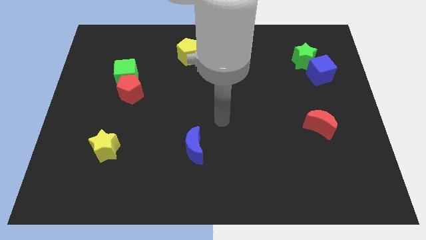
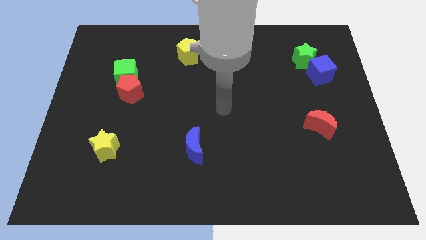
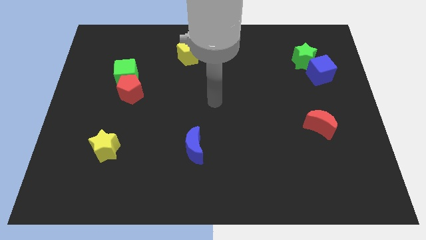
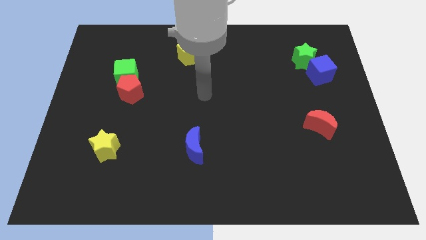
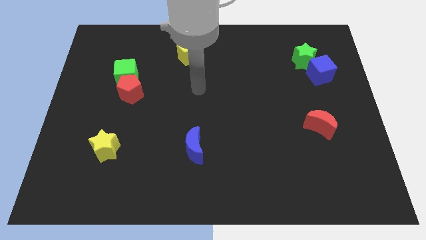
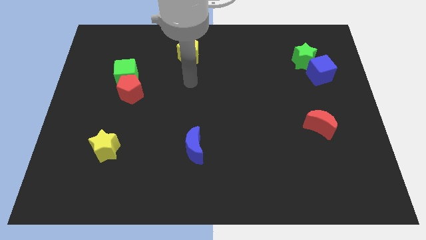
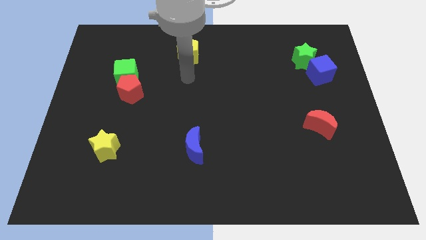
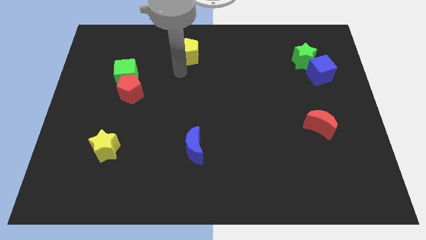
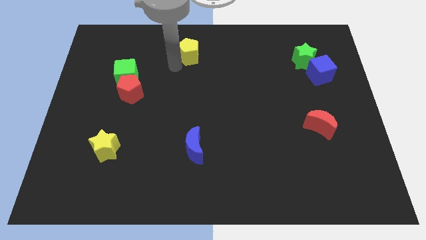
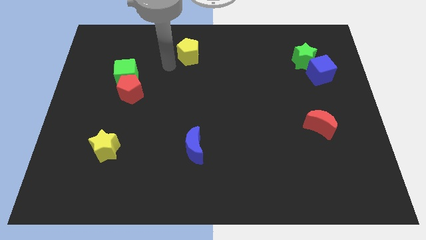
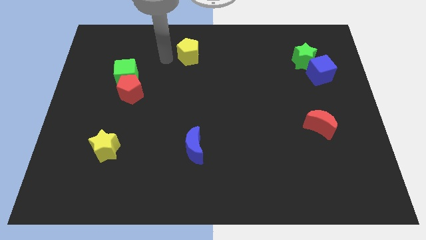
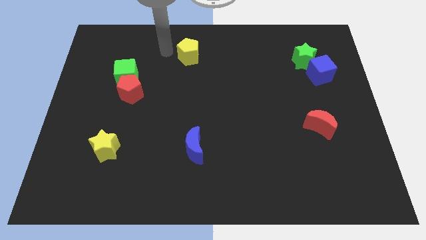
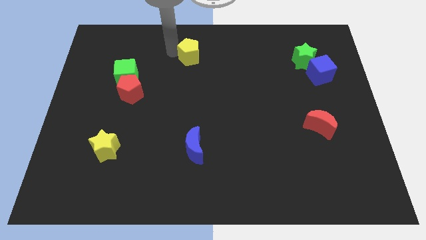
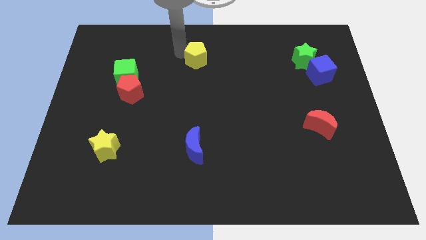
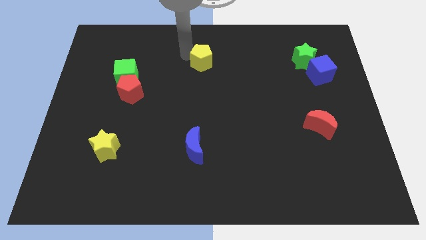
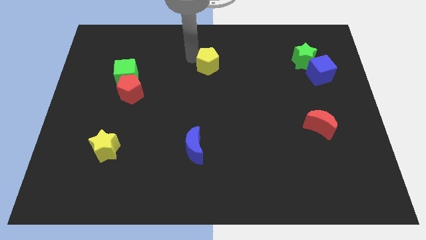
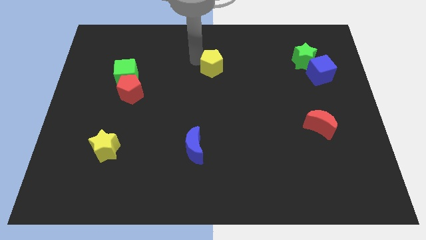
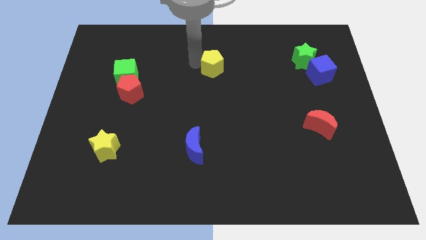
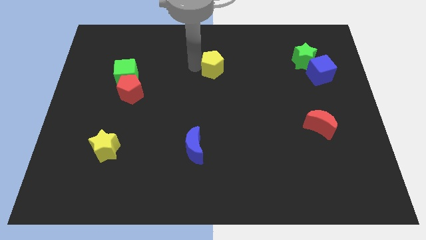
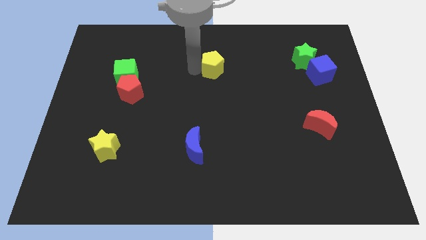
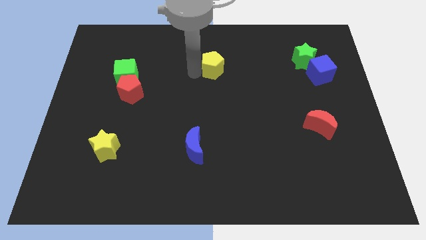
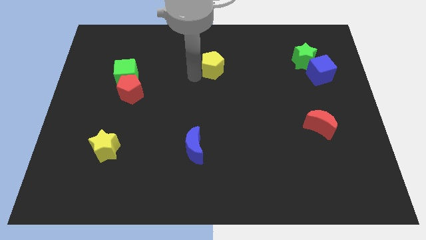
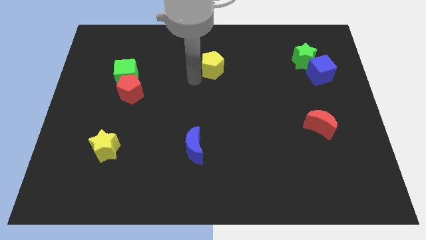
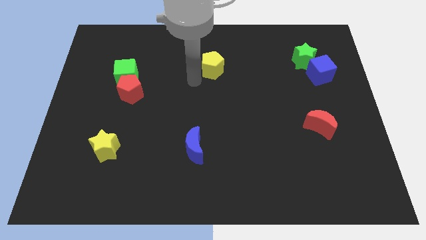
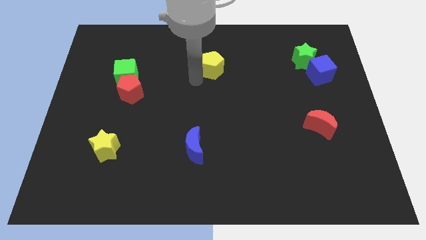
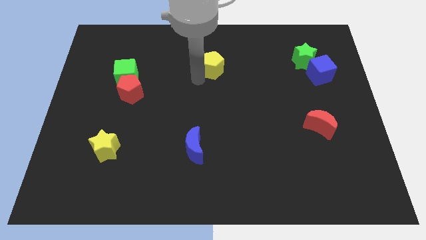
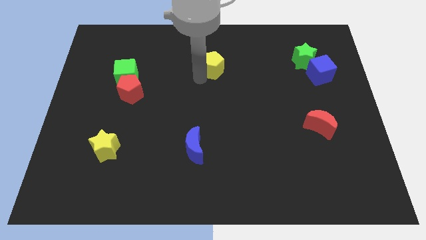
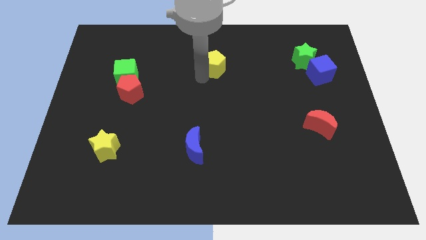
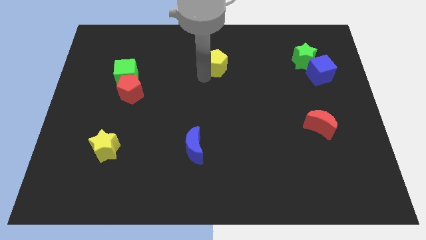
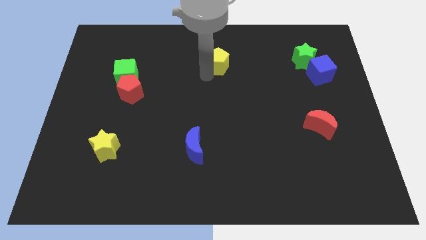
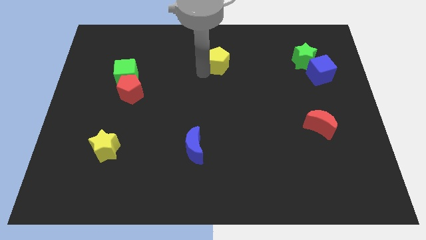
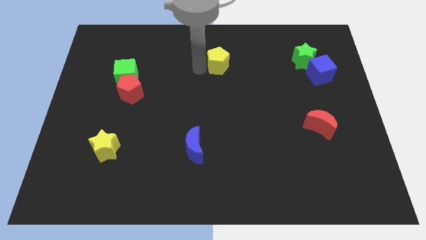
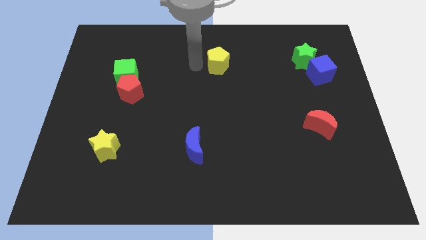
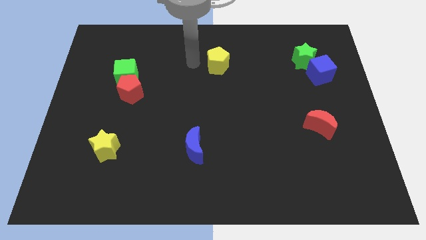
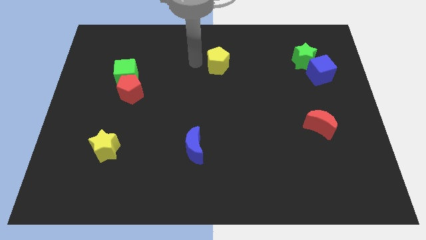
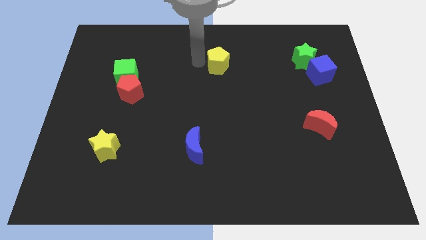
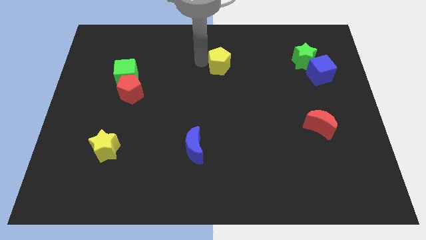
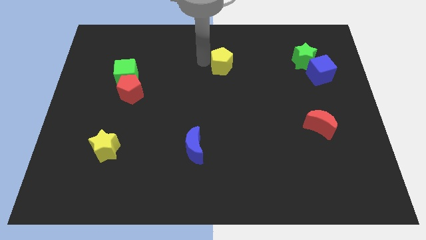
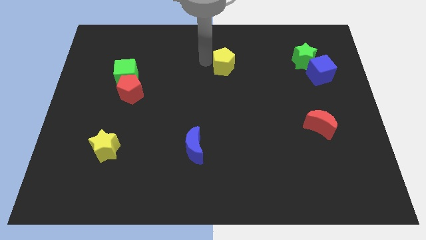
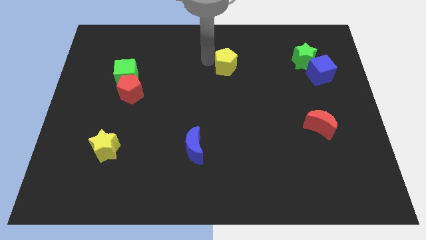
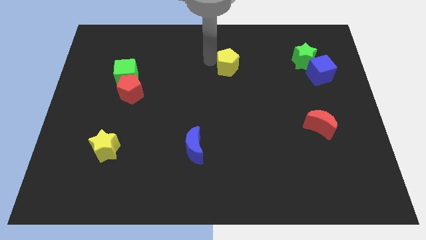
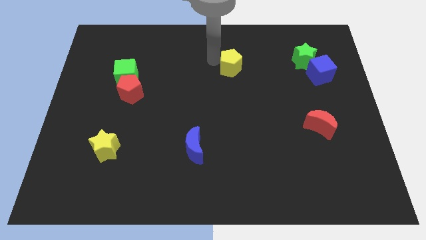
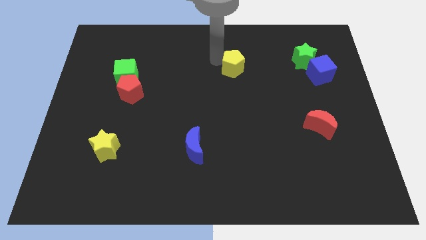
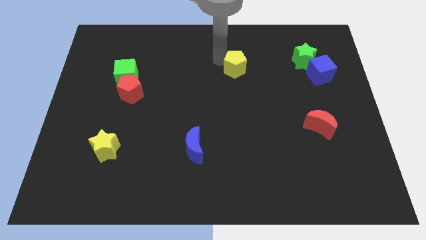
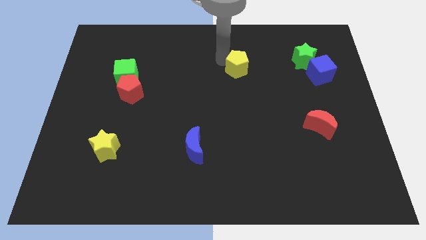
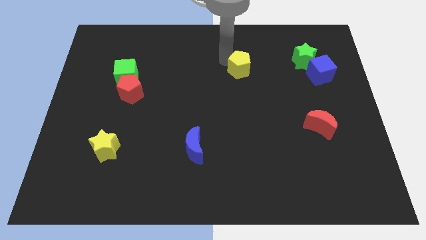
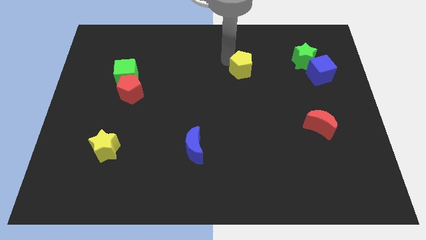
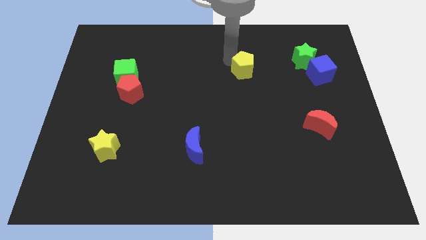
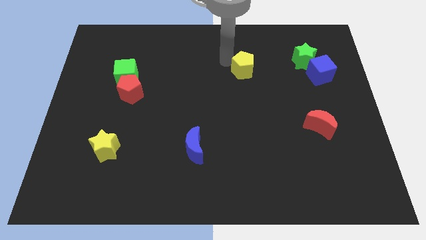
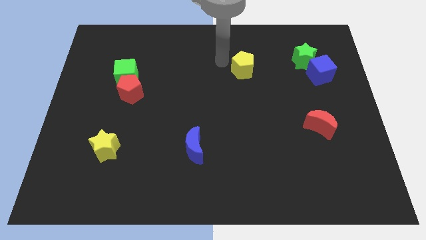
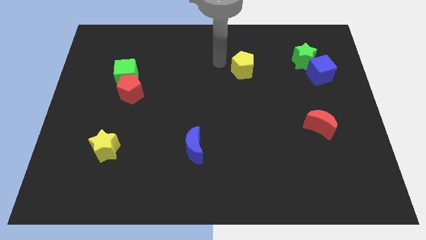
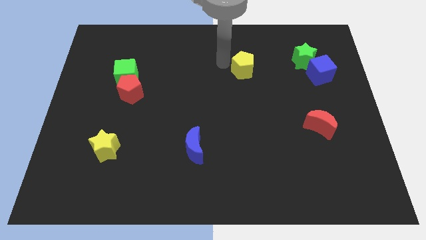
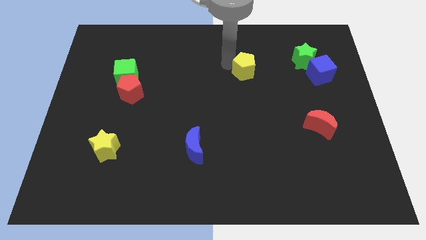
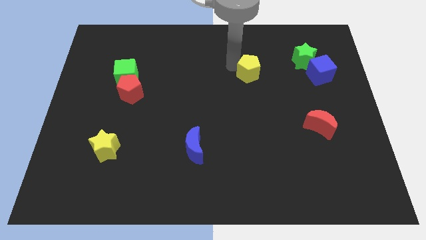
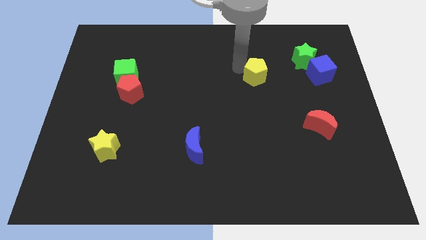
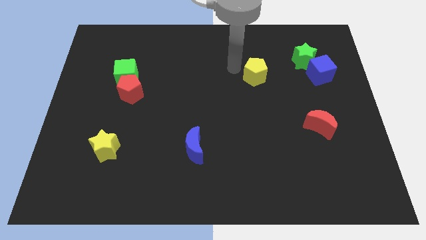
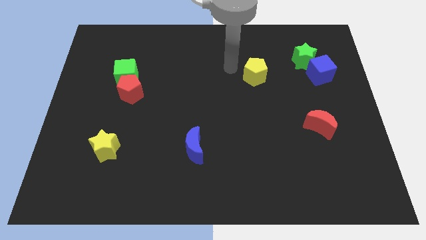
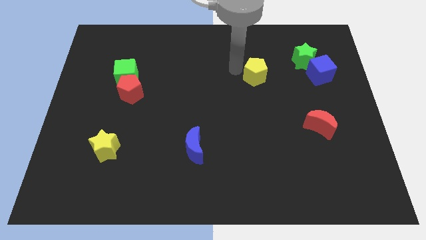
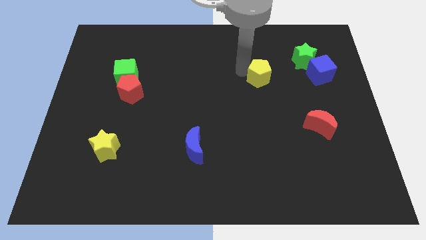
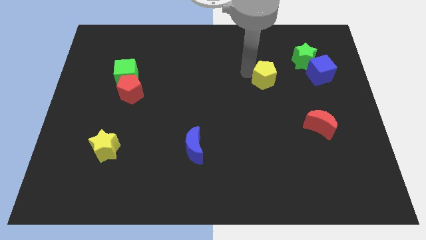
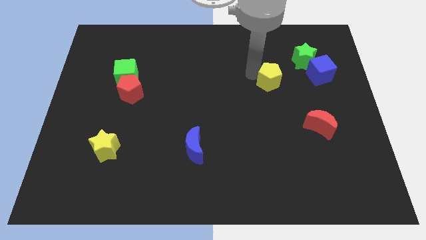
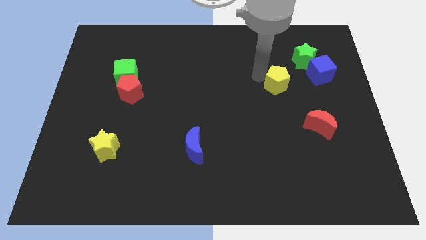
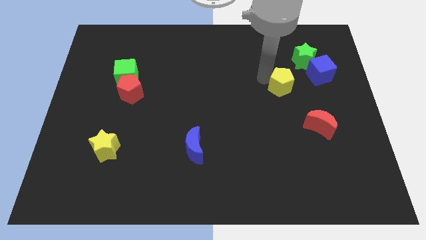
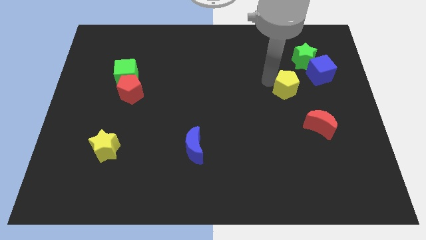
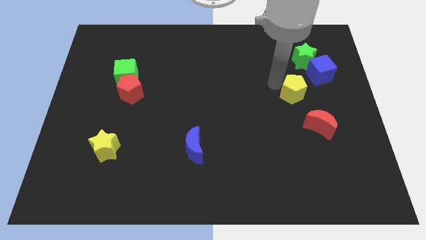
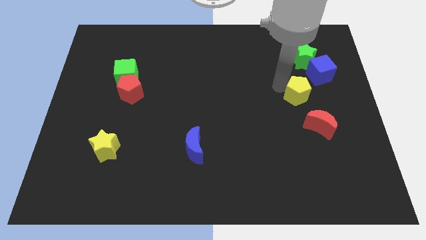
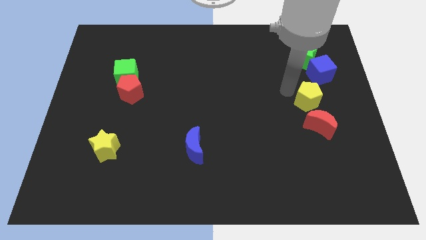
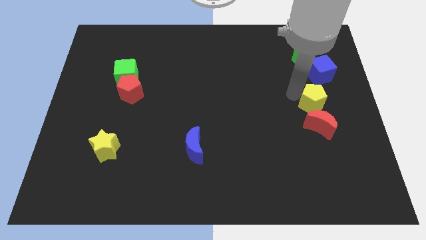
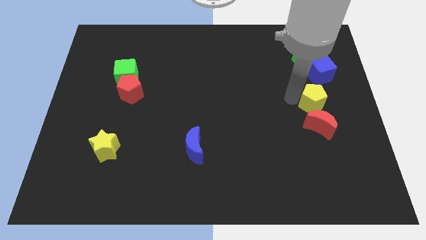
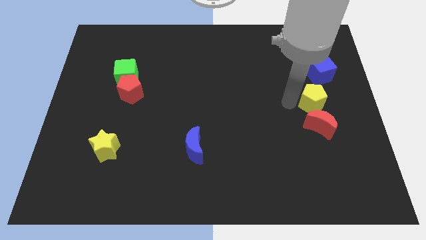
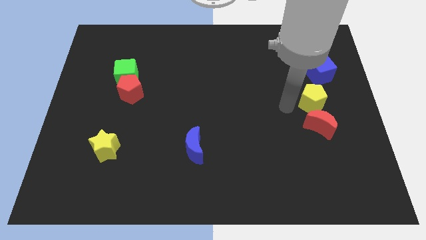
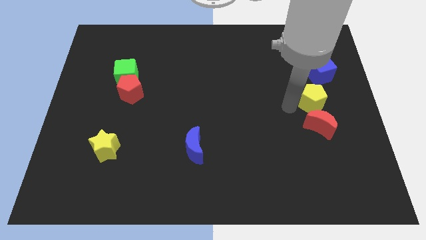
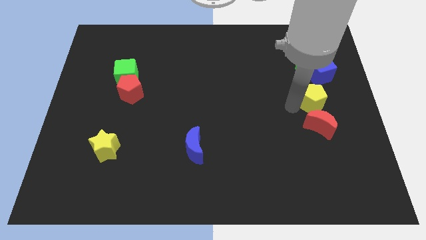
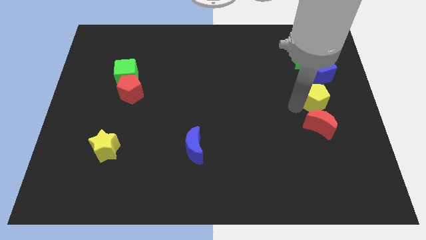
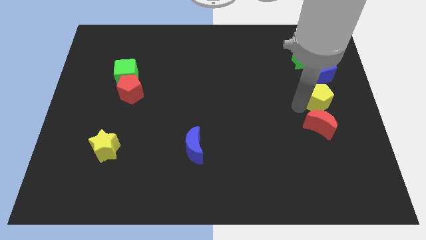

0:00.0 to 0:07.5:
move the yellow pentagon to the right side of the board
